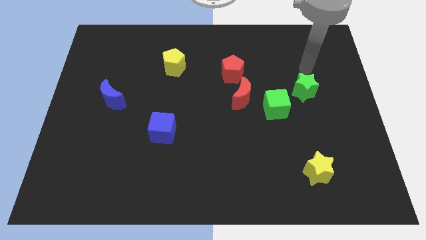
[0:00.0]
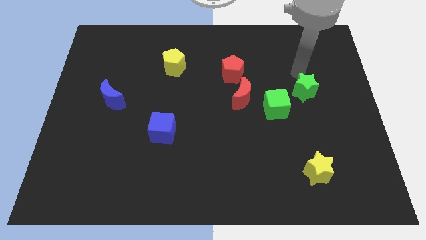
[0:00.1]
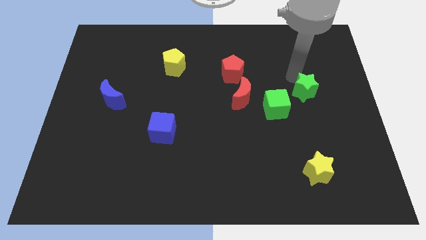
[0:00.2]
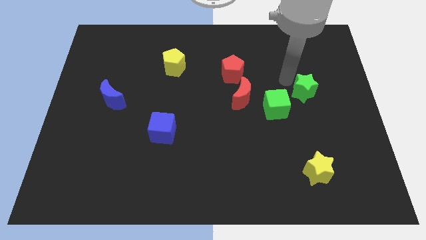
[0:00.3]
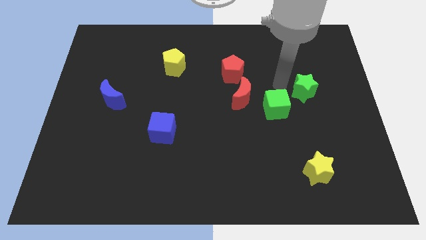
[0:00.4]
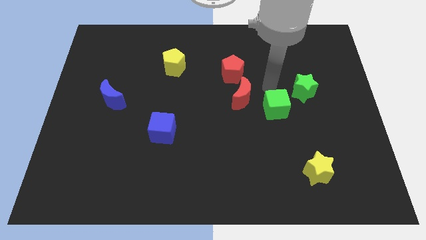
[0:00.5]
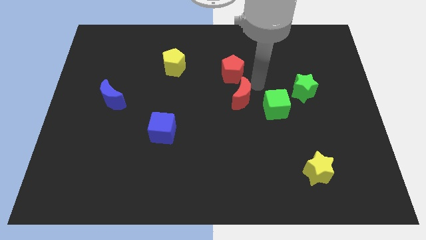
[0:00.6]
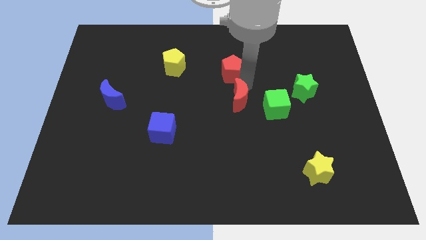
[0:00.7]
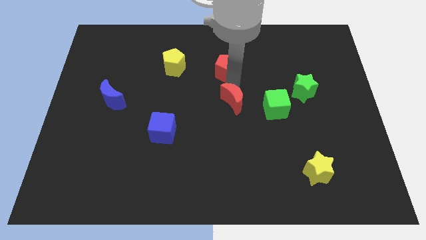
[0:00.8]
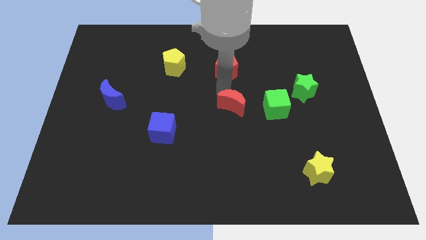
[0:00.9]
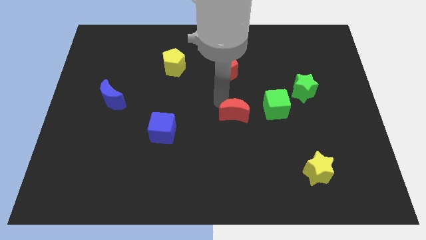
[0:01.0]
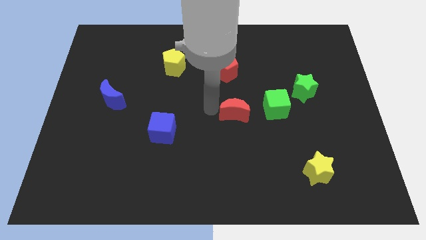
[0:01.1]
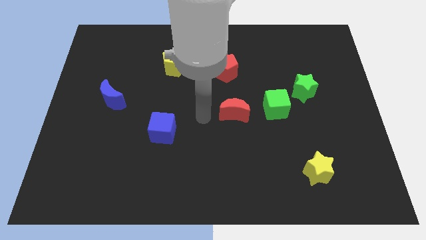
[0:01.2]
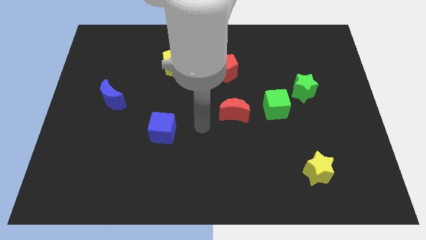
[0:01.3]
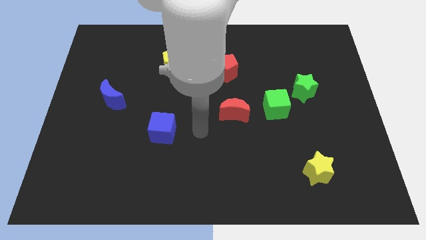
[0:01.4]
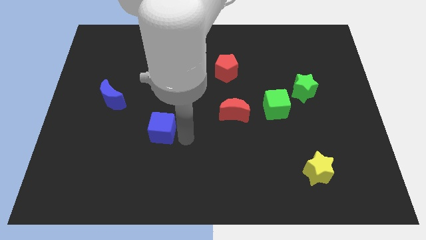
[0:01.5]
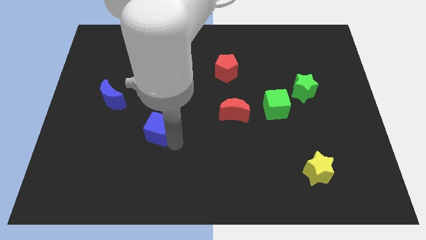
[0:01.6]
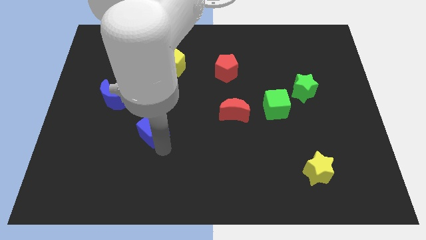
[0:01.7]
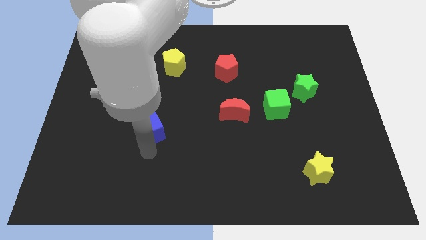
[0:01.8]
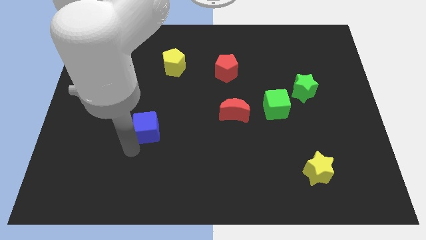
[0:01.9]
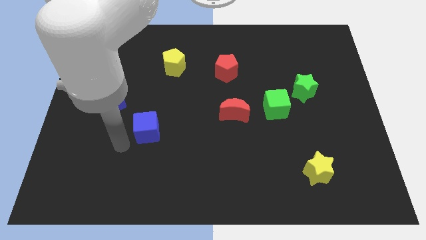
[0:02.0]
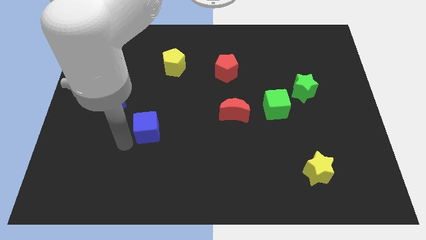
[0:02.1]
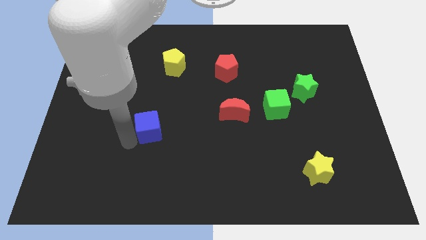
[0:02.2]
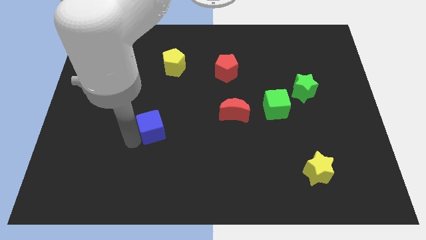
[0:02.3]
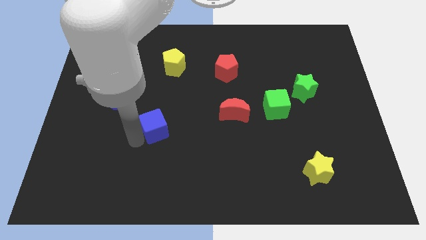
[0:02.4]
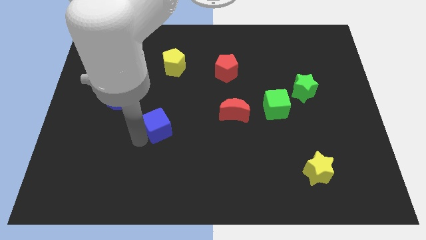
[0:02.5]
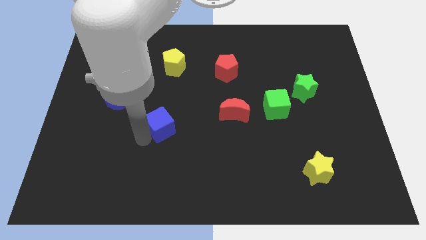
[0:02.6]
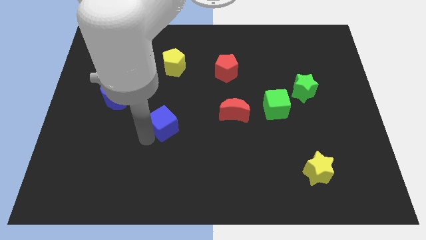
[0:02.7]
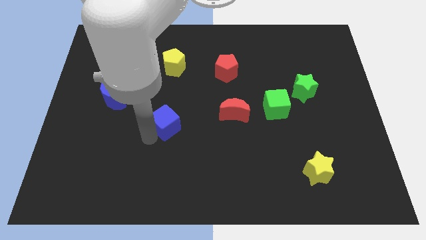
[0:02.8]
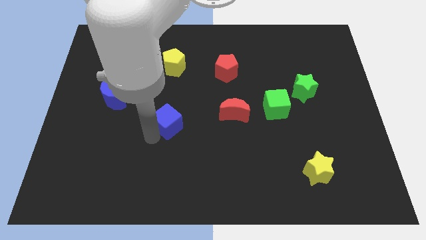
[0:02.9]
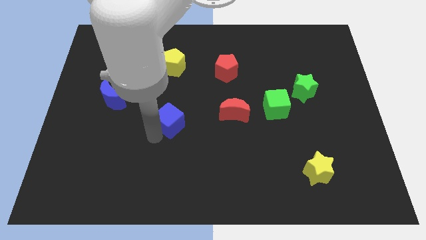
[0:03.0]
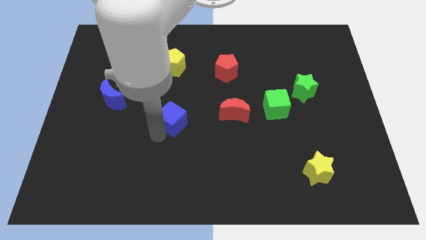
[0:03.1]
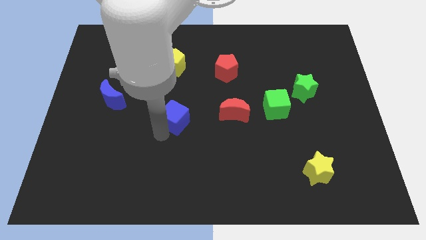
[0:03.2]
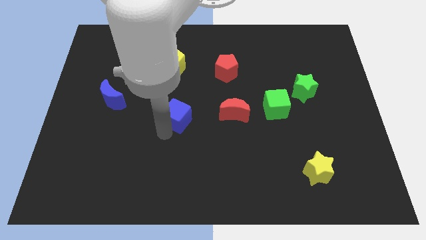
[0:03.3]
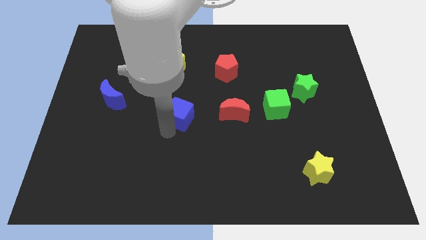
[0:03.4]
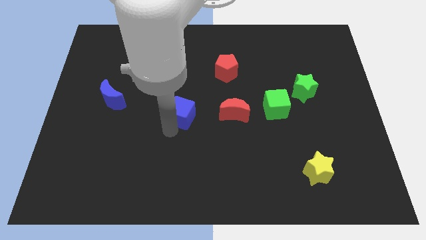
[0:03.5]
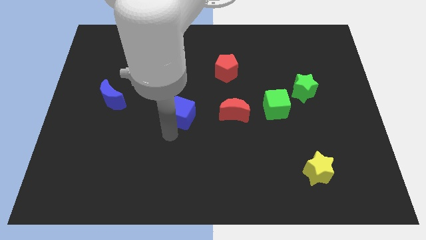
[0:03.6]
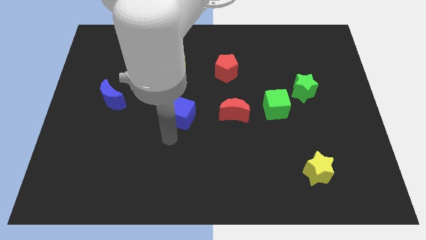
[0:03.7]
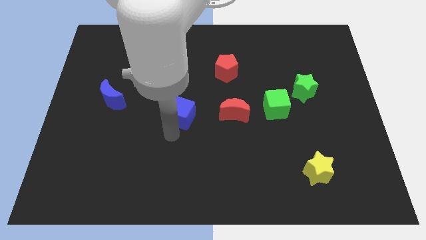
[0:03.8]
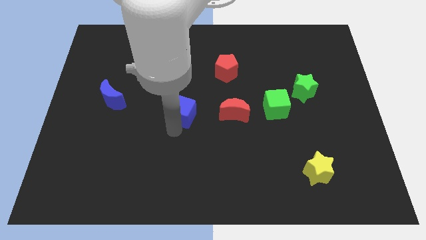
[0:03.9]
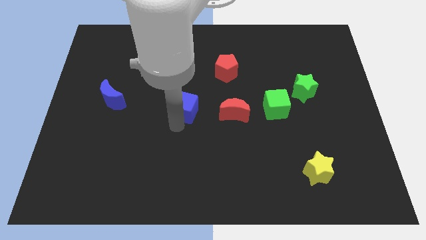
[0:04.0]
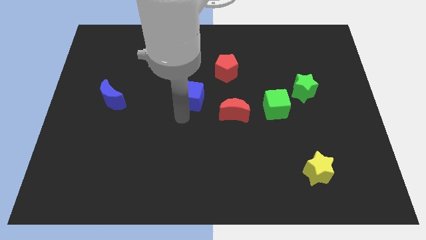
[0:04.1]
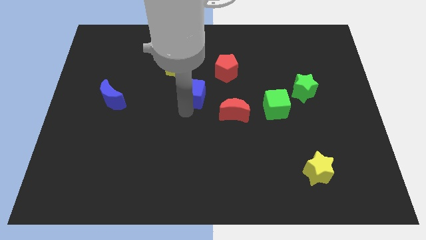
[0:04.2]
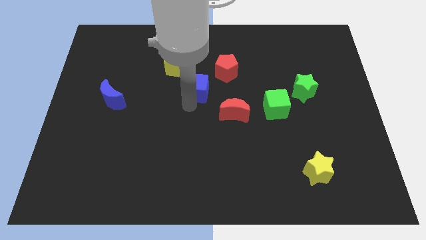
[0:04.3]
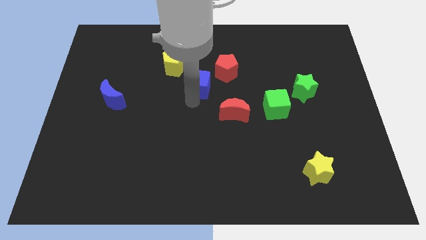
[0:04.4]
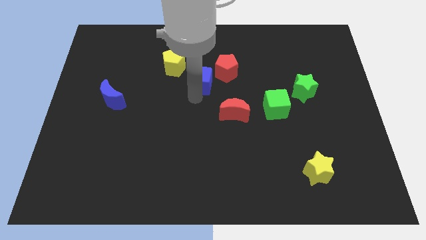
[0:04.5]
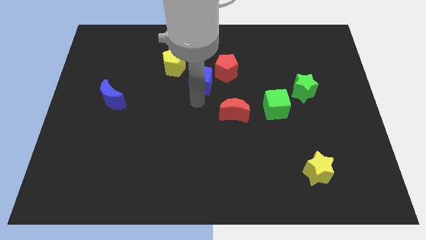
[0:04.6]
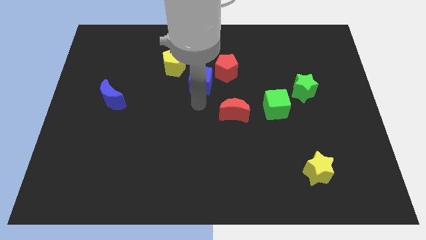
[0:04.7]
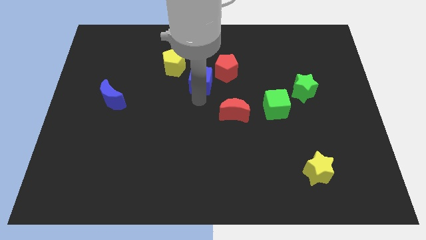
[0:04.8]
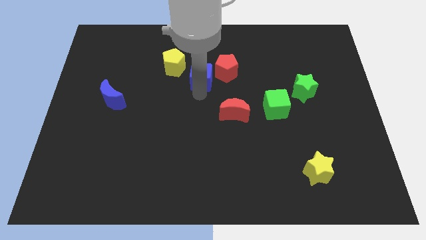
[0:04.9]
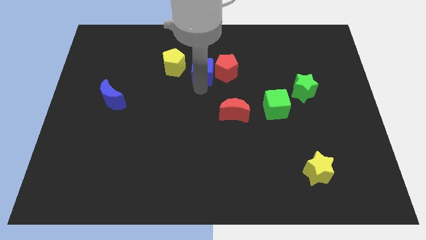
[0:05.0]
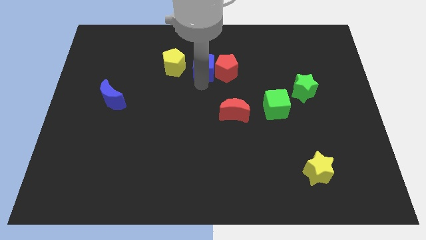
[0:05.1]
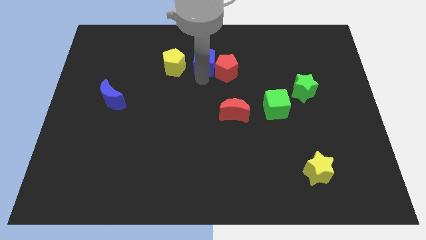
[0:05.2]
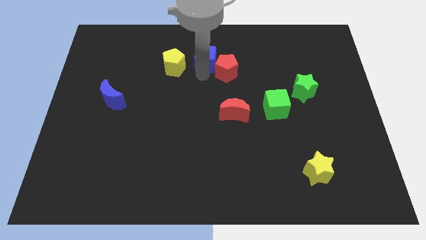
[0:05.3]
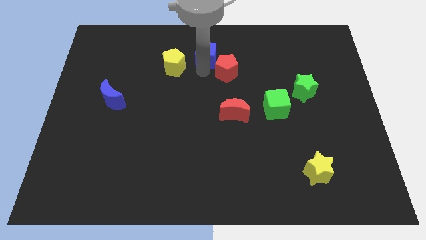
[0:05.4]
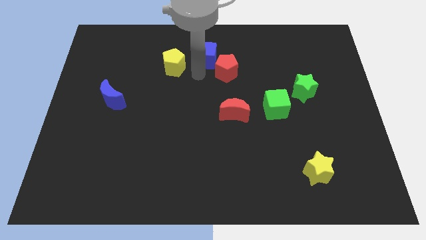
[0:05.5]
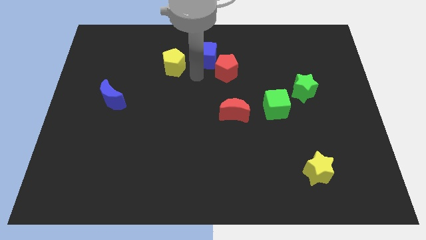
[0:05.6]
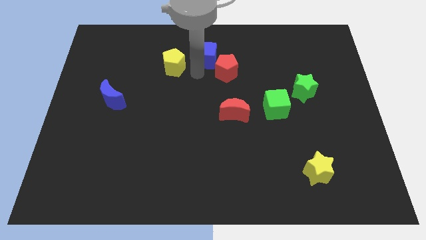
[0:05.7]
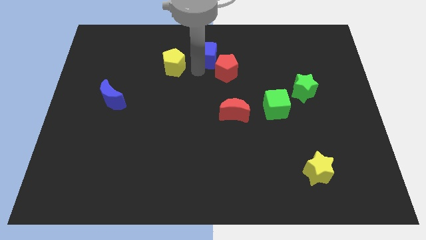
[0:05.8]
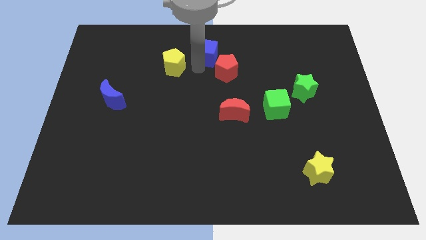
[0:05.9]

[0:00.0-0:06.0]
move the blue cube to the towards your base
